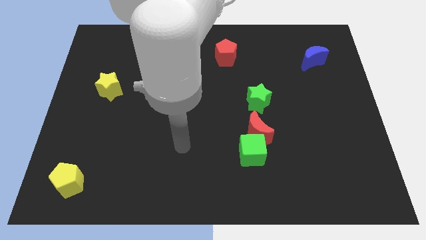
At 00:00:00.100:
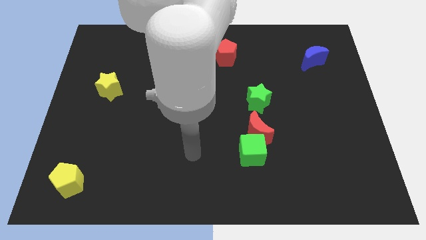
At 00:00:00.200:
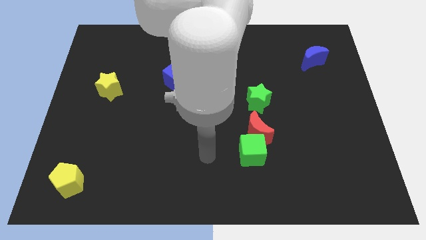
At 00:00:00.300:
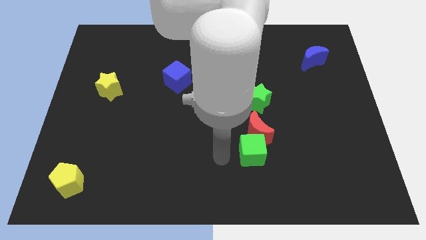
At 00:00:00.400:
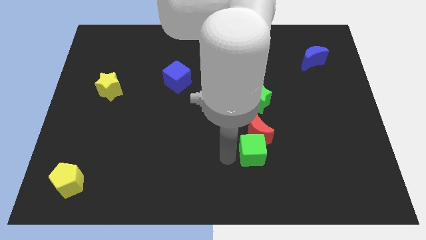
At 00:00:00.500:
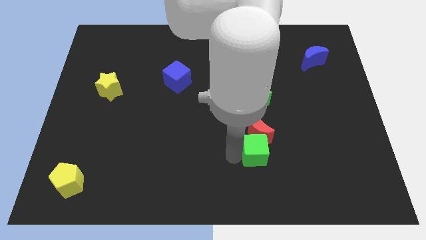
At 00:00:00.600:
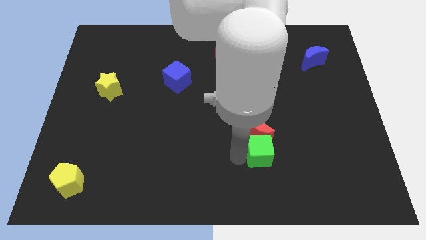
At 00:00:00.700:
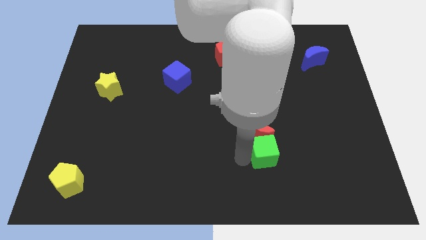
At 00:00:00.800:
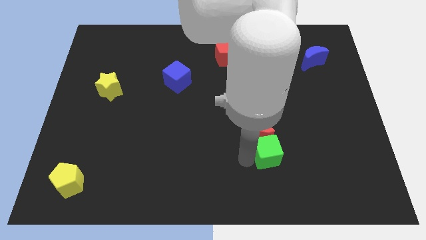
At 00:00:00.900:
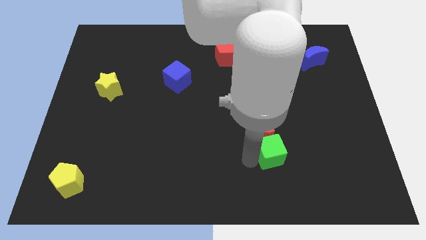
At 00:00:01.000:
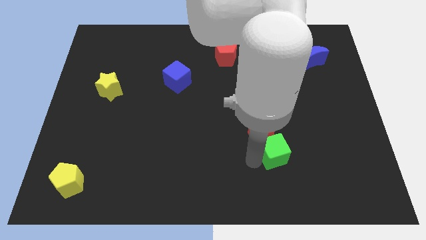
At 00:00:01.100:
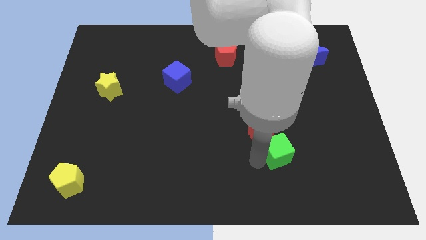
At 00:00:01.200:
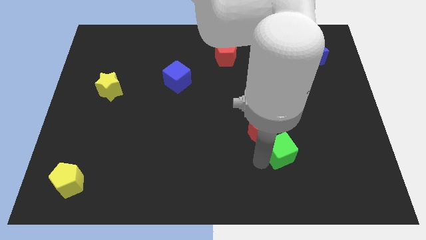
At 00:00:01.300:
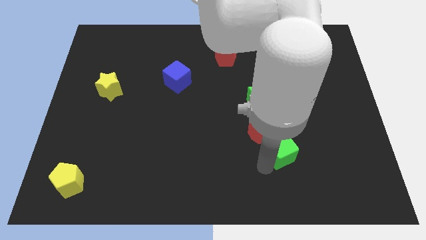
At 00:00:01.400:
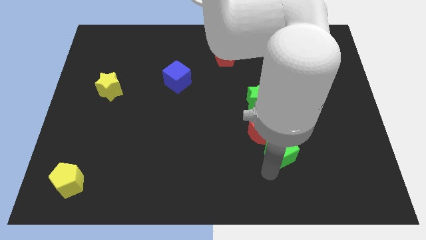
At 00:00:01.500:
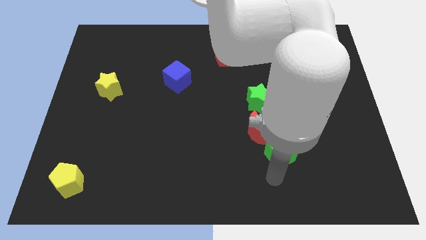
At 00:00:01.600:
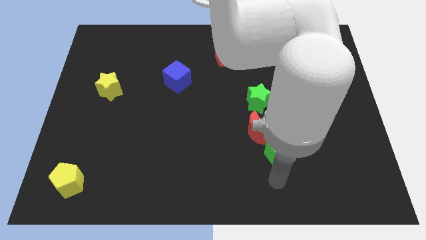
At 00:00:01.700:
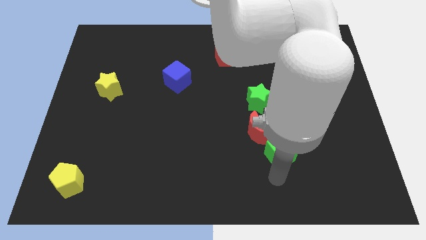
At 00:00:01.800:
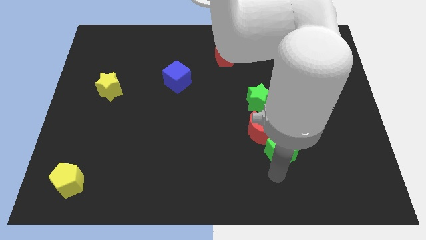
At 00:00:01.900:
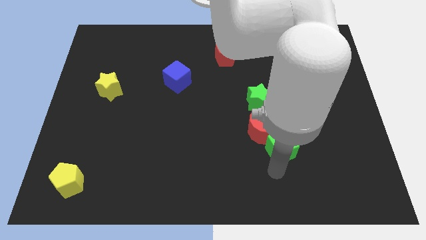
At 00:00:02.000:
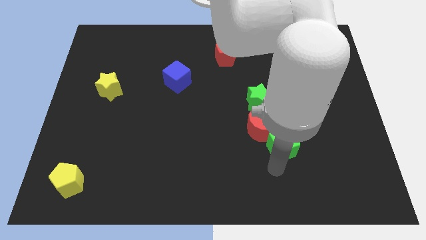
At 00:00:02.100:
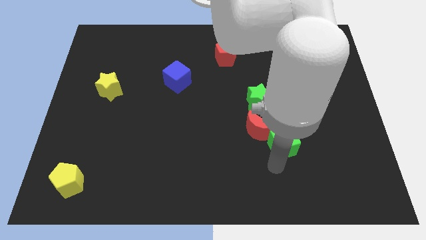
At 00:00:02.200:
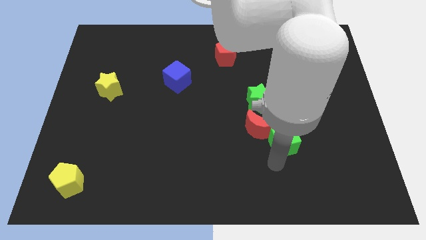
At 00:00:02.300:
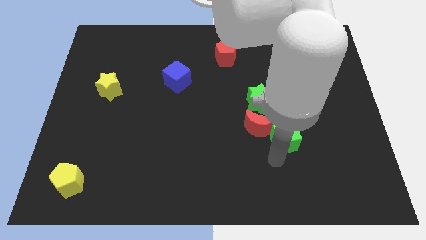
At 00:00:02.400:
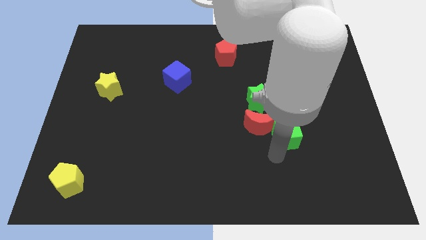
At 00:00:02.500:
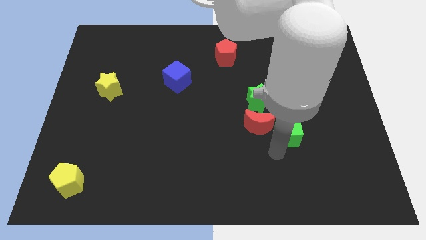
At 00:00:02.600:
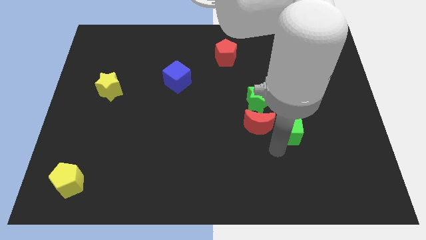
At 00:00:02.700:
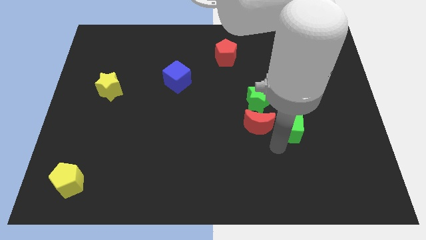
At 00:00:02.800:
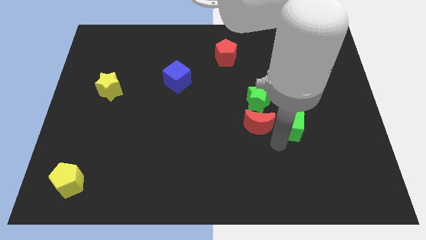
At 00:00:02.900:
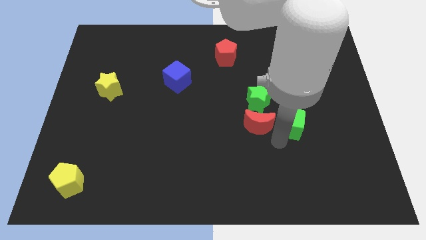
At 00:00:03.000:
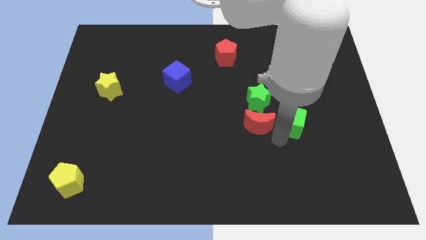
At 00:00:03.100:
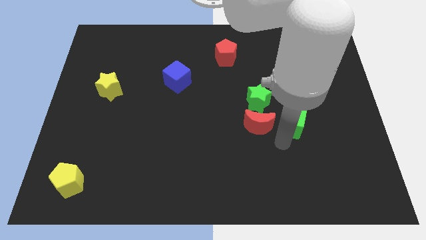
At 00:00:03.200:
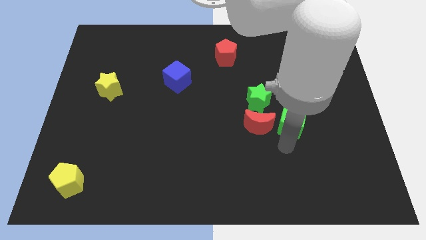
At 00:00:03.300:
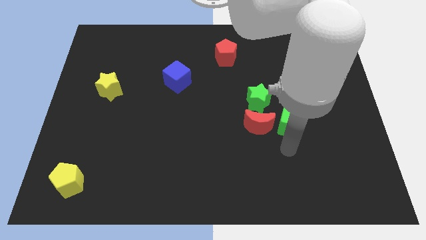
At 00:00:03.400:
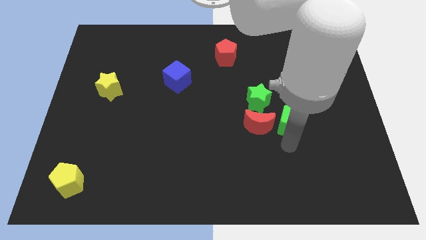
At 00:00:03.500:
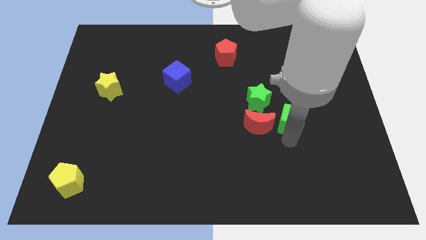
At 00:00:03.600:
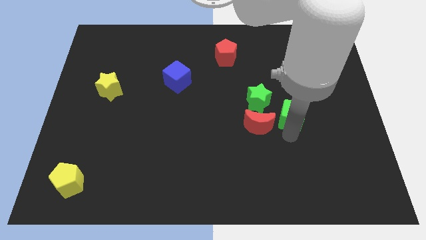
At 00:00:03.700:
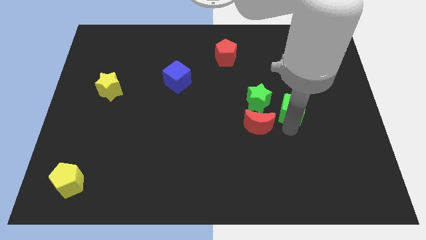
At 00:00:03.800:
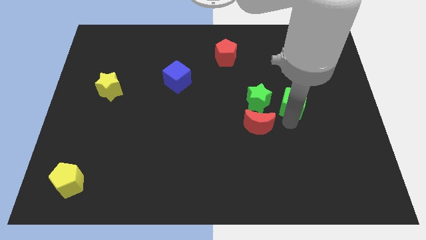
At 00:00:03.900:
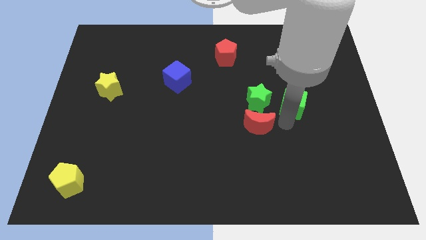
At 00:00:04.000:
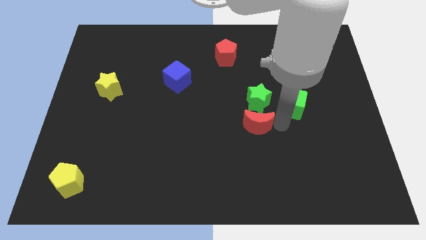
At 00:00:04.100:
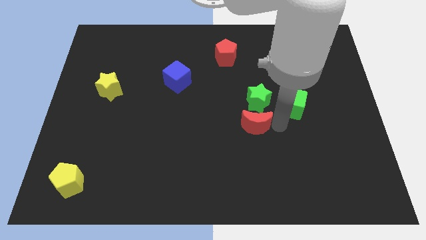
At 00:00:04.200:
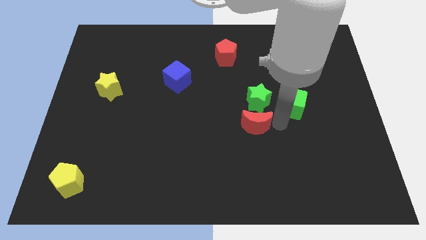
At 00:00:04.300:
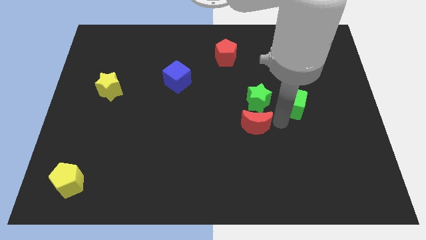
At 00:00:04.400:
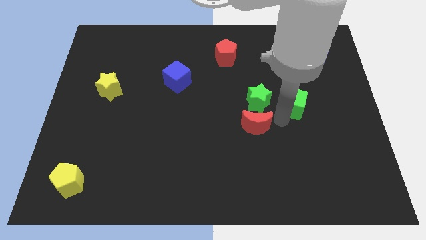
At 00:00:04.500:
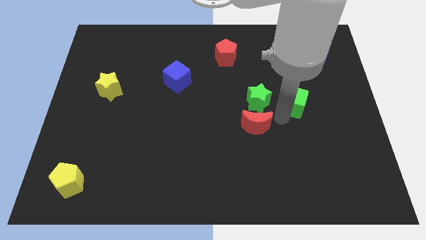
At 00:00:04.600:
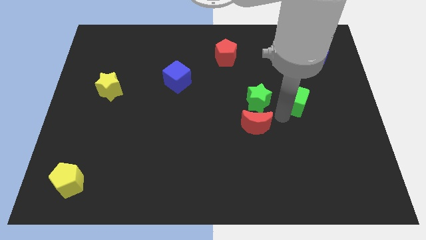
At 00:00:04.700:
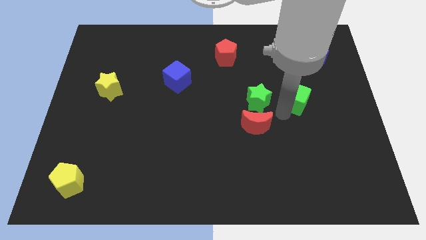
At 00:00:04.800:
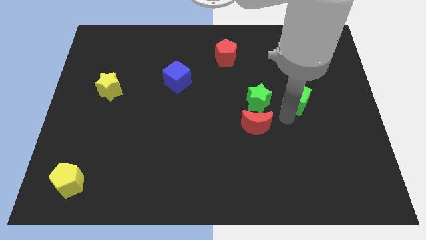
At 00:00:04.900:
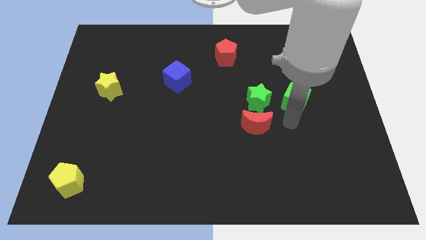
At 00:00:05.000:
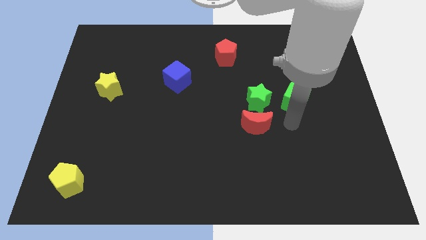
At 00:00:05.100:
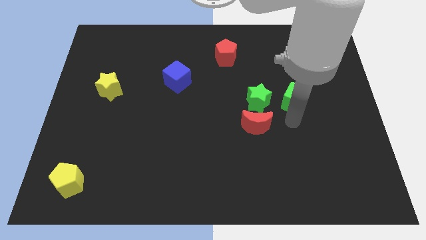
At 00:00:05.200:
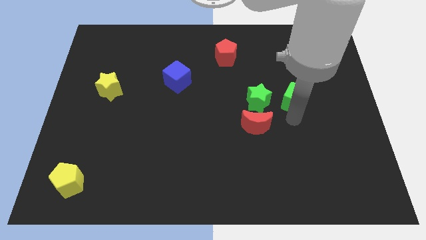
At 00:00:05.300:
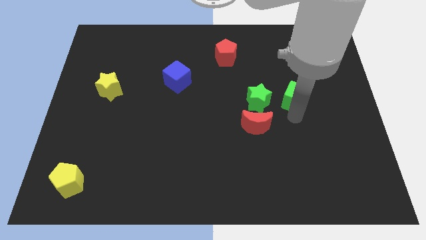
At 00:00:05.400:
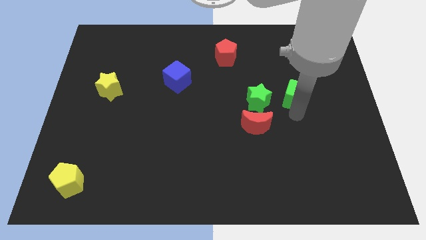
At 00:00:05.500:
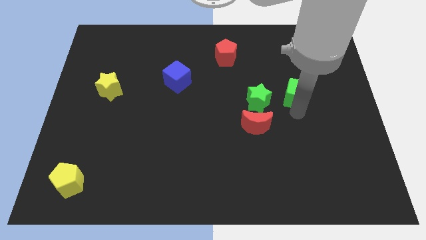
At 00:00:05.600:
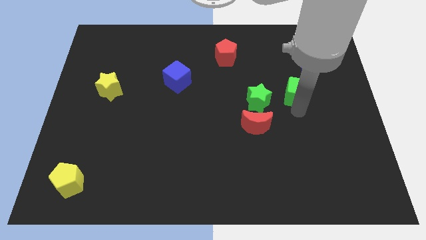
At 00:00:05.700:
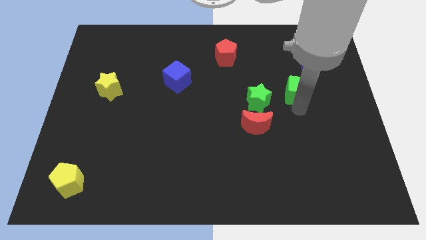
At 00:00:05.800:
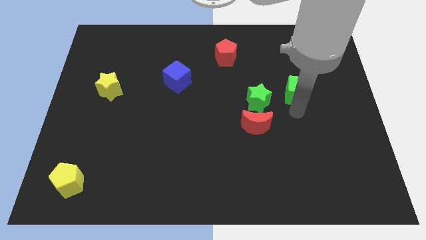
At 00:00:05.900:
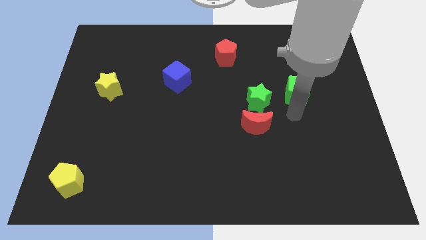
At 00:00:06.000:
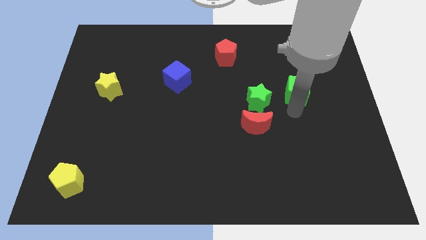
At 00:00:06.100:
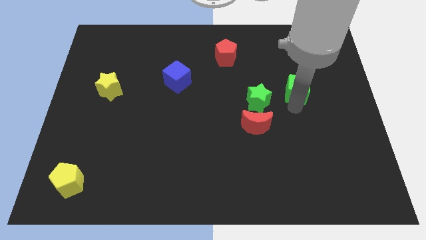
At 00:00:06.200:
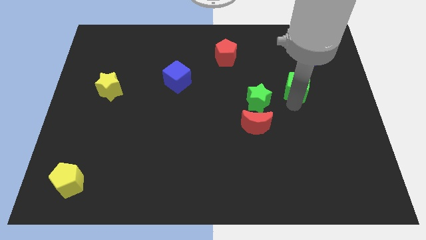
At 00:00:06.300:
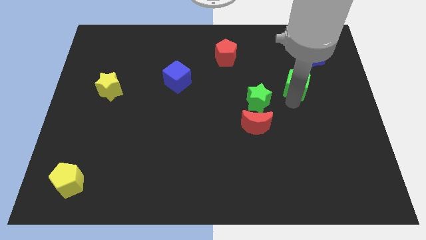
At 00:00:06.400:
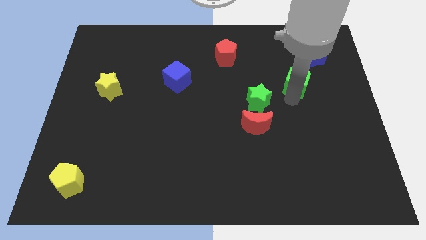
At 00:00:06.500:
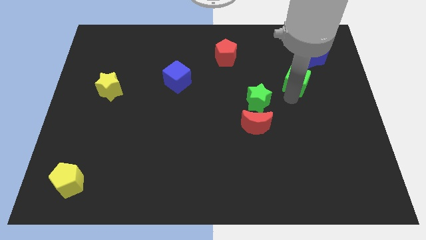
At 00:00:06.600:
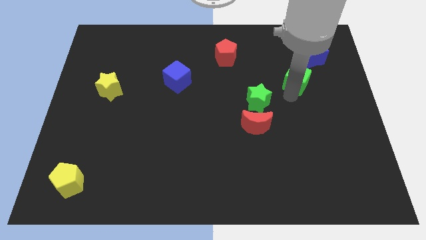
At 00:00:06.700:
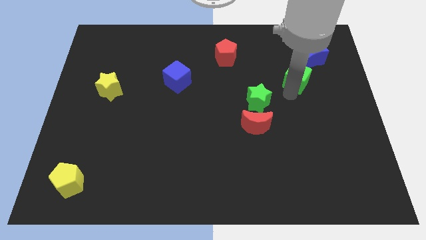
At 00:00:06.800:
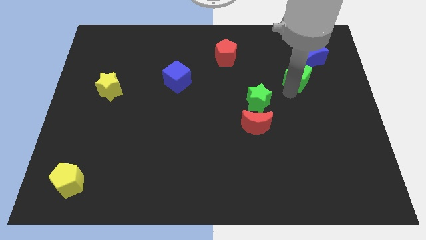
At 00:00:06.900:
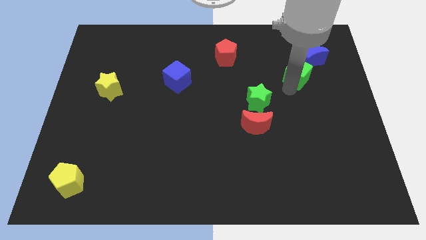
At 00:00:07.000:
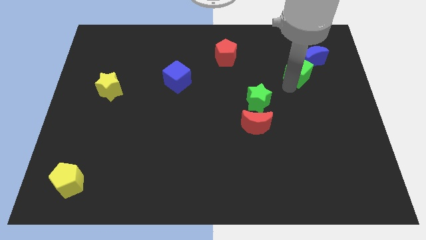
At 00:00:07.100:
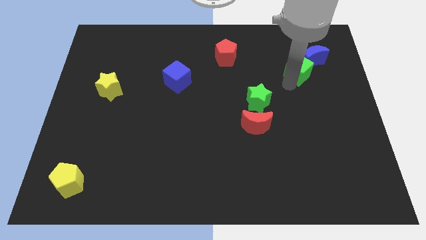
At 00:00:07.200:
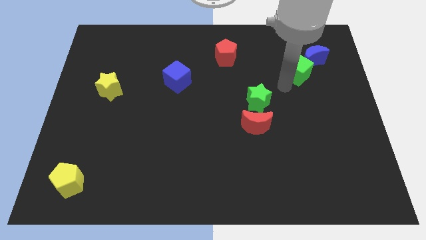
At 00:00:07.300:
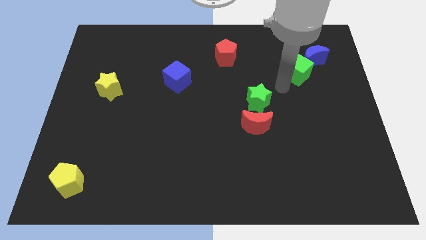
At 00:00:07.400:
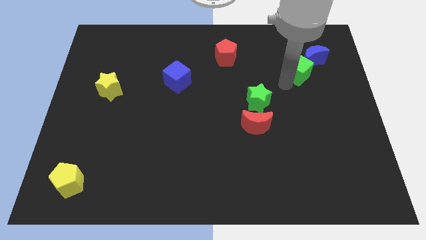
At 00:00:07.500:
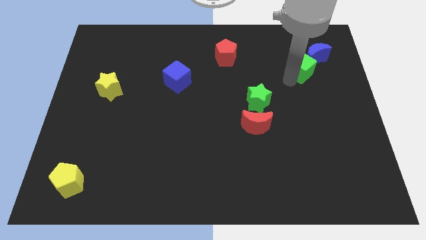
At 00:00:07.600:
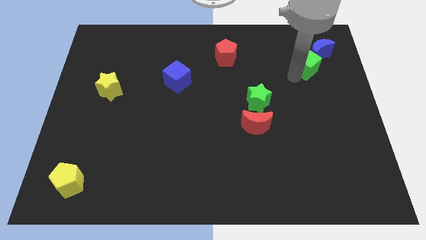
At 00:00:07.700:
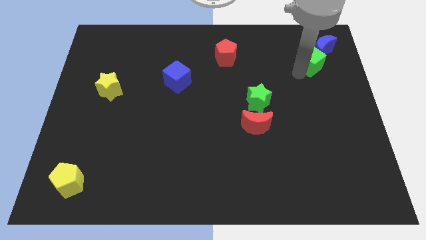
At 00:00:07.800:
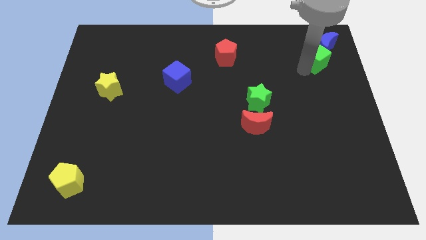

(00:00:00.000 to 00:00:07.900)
push the green cube next to the blue moon
